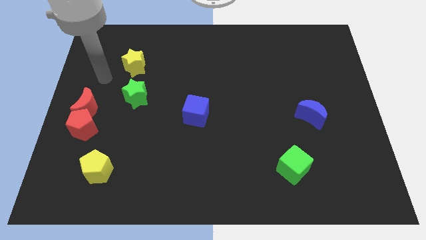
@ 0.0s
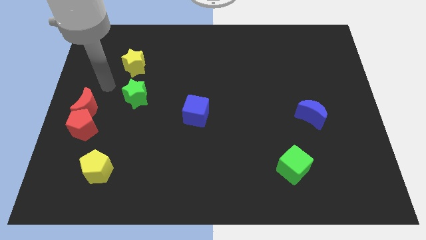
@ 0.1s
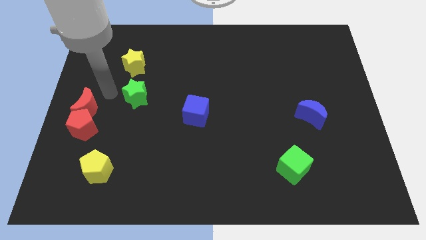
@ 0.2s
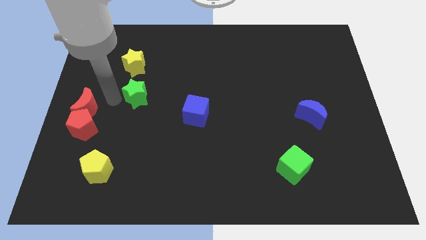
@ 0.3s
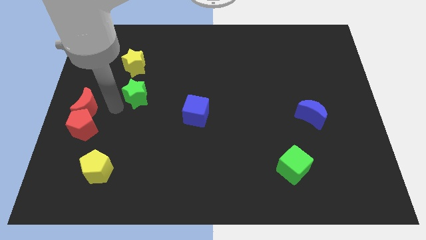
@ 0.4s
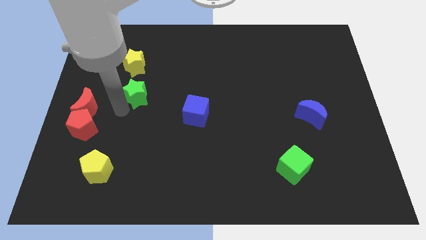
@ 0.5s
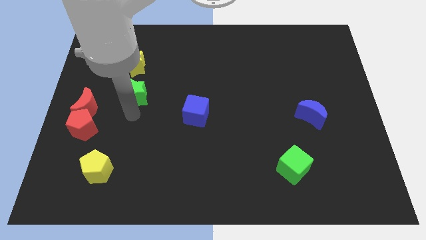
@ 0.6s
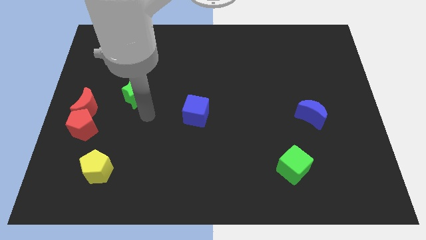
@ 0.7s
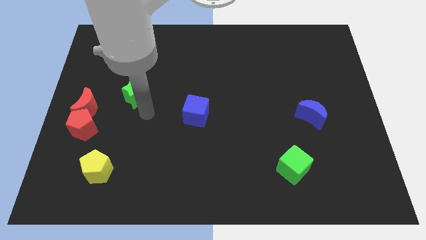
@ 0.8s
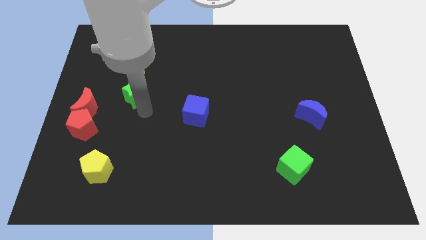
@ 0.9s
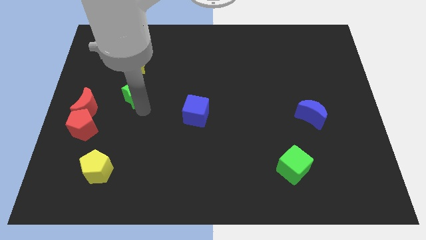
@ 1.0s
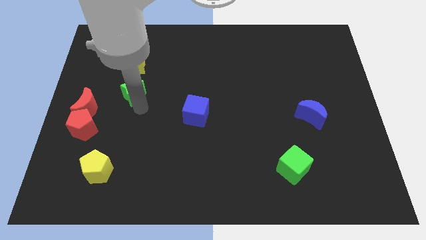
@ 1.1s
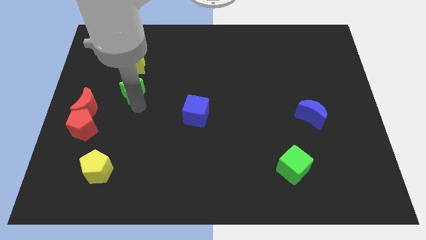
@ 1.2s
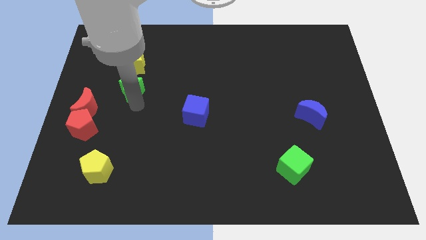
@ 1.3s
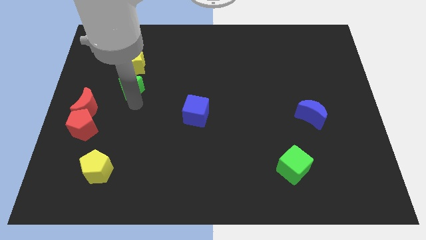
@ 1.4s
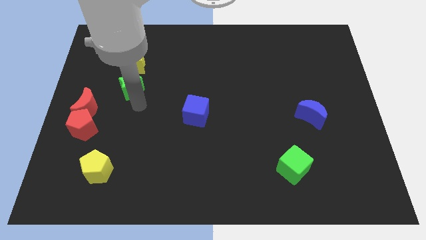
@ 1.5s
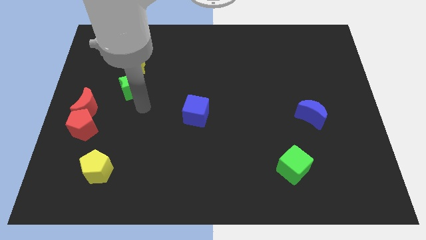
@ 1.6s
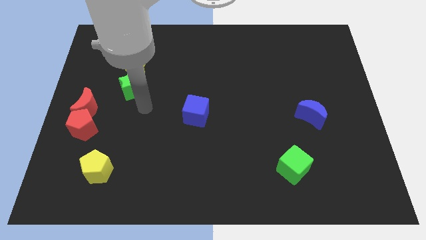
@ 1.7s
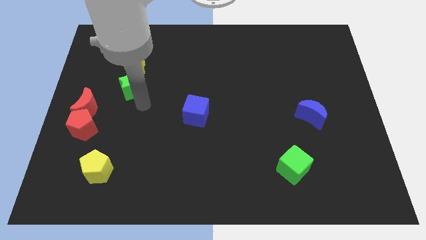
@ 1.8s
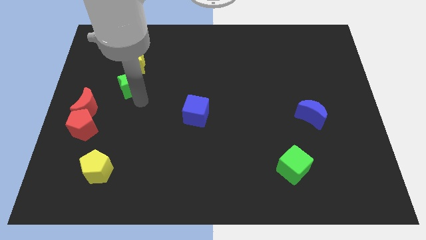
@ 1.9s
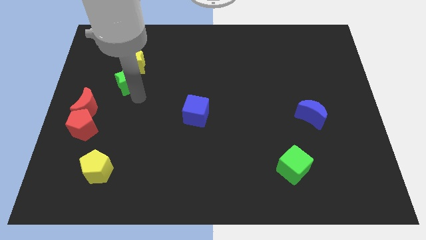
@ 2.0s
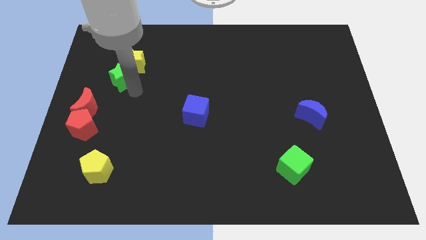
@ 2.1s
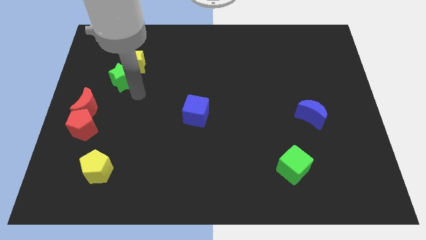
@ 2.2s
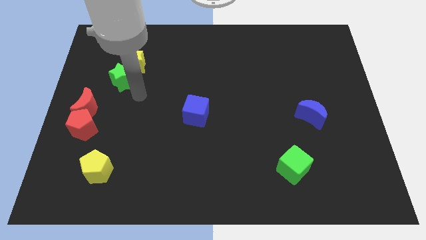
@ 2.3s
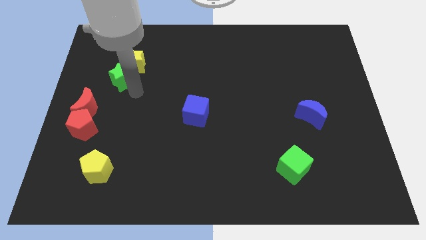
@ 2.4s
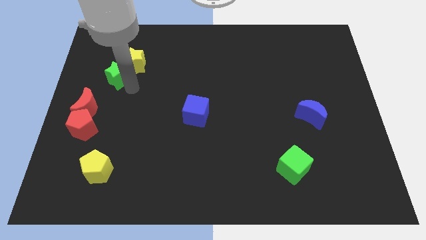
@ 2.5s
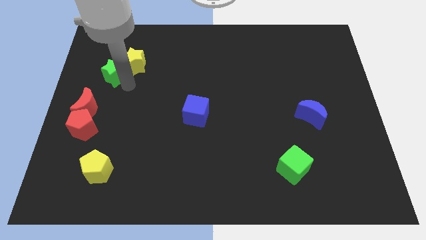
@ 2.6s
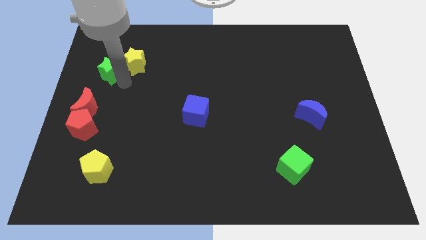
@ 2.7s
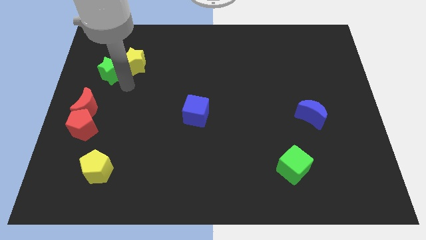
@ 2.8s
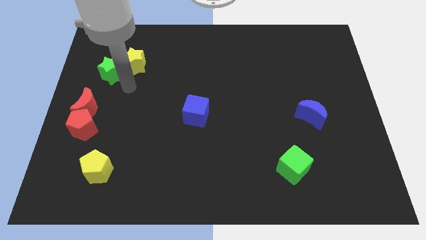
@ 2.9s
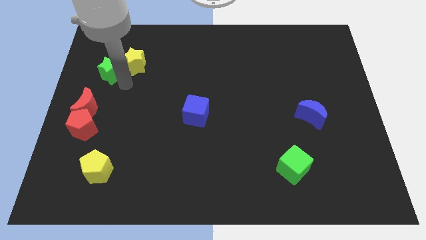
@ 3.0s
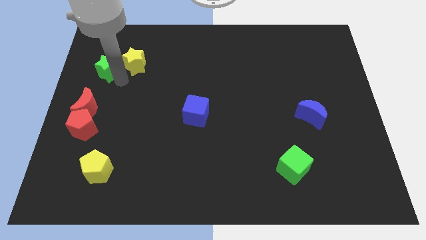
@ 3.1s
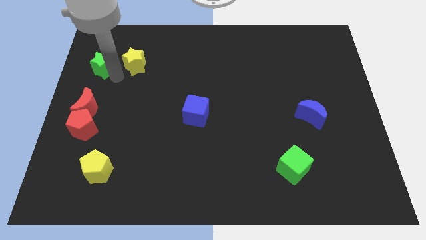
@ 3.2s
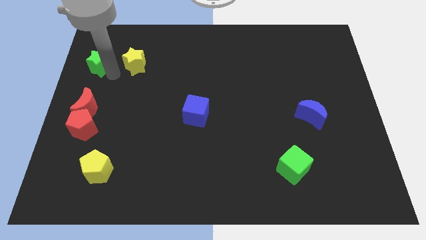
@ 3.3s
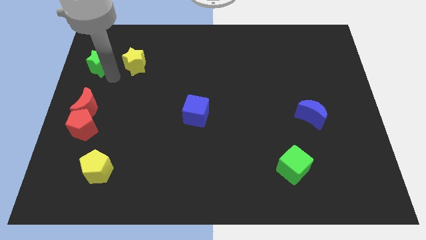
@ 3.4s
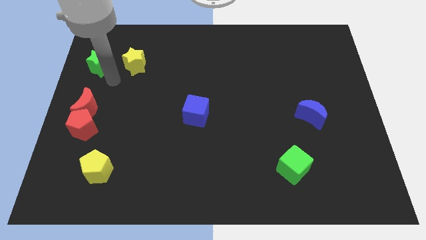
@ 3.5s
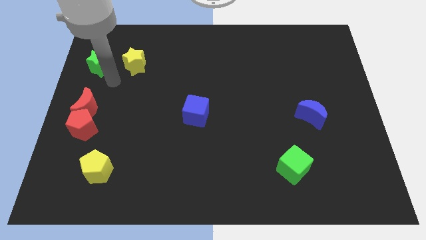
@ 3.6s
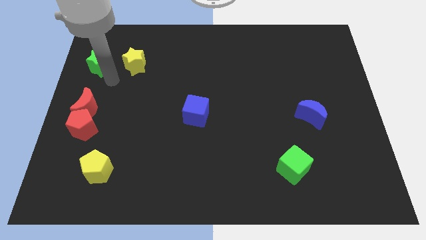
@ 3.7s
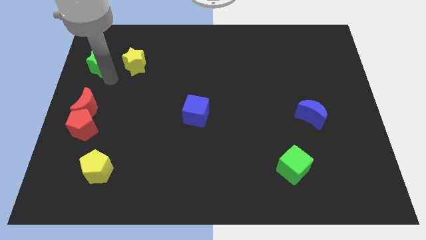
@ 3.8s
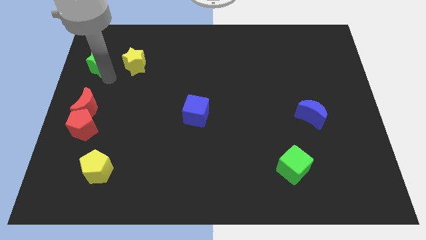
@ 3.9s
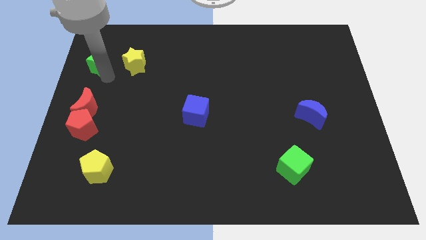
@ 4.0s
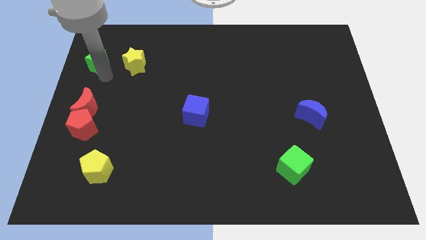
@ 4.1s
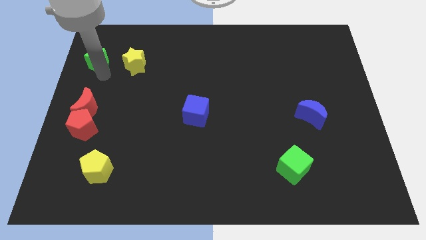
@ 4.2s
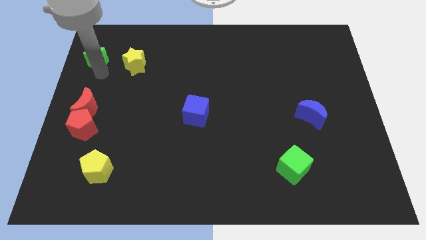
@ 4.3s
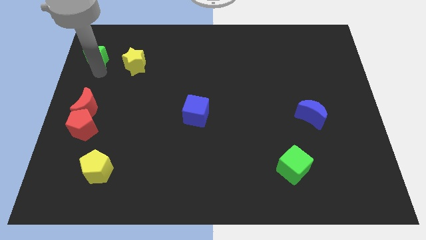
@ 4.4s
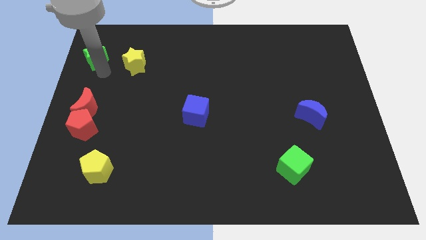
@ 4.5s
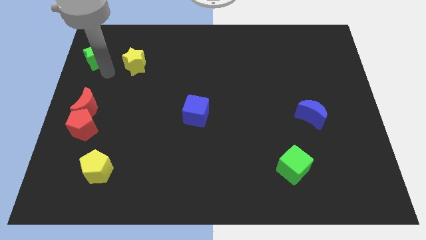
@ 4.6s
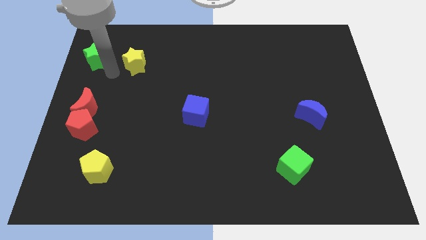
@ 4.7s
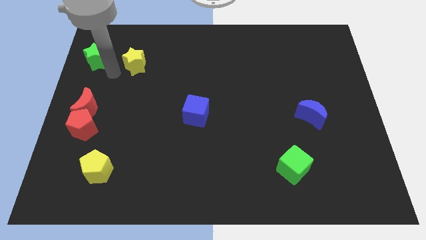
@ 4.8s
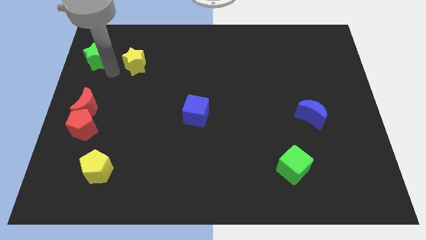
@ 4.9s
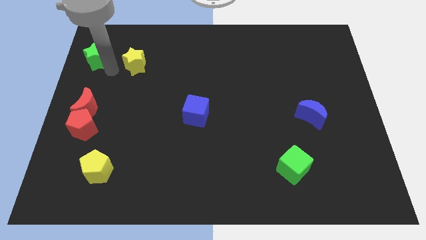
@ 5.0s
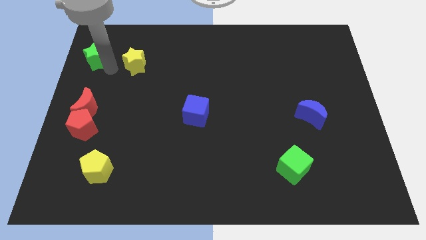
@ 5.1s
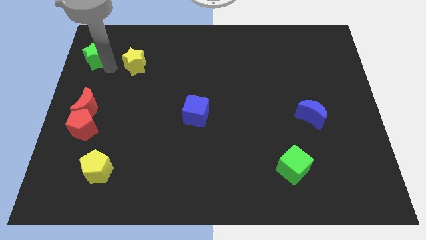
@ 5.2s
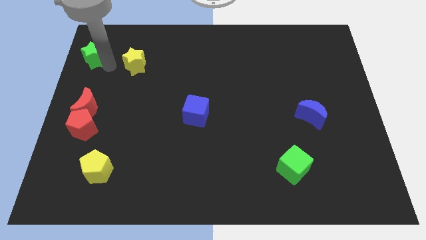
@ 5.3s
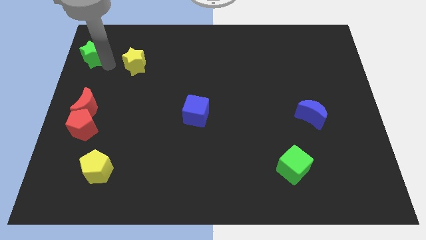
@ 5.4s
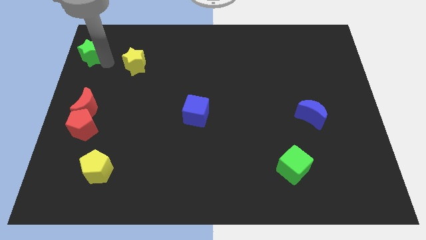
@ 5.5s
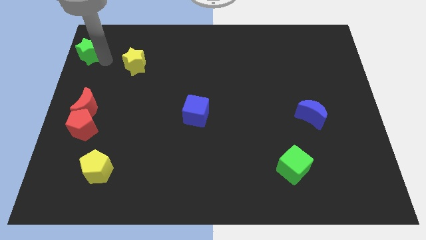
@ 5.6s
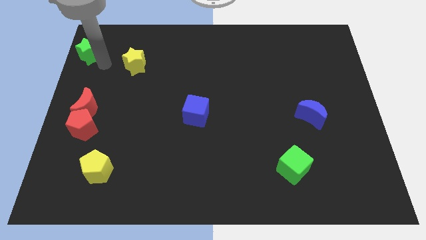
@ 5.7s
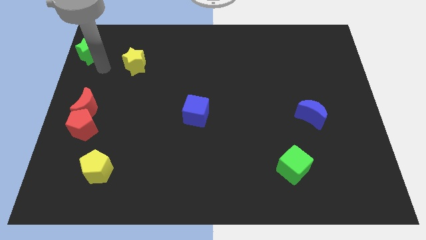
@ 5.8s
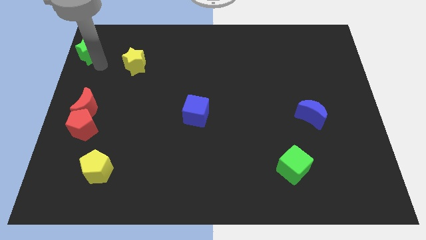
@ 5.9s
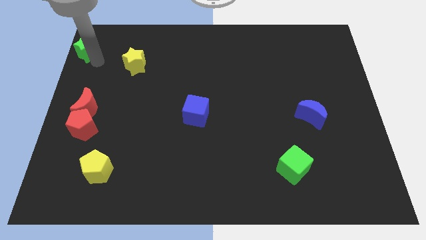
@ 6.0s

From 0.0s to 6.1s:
move the green star to the top left of the board

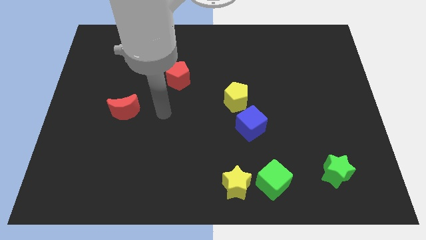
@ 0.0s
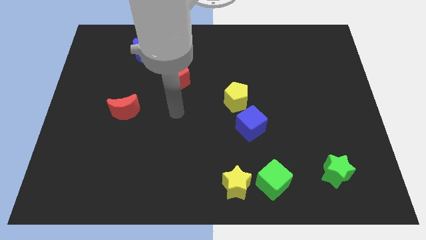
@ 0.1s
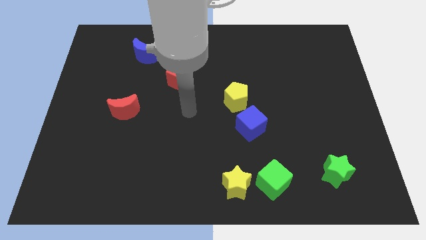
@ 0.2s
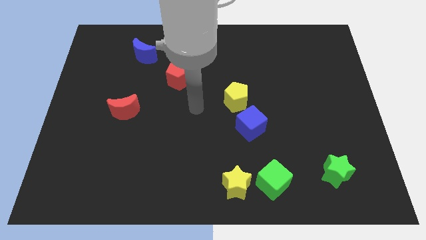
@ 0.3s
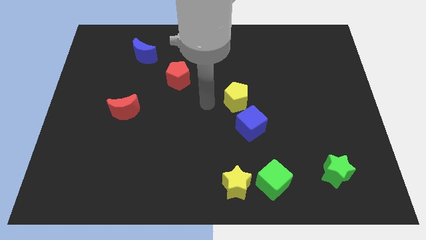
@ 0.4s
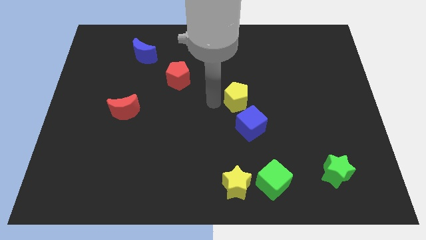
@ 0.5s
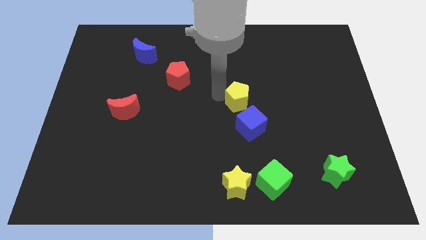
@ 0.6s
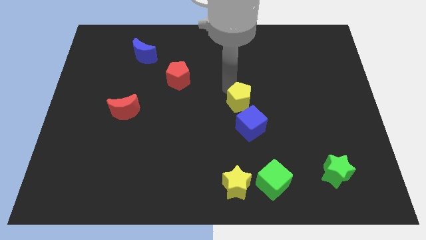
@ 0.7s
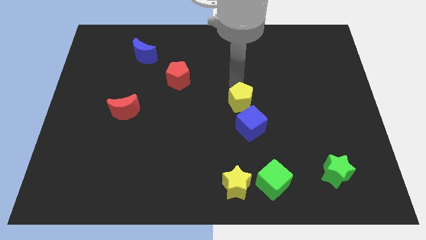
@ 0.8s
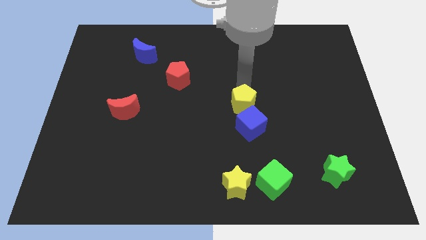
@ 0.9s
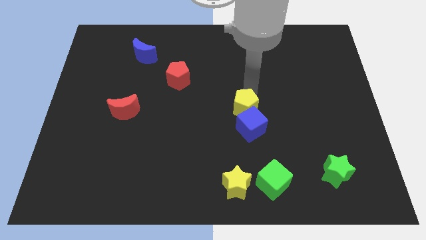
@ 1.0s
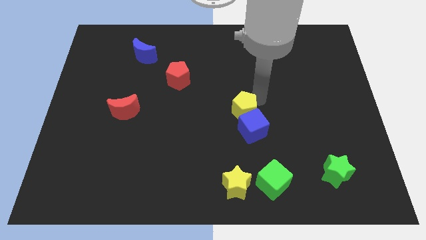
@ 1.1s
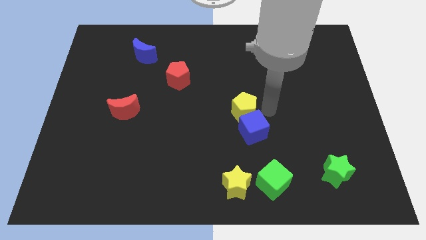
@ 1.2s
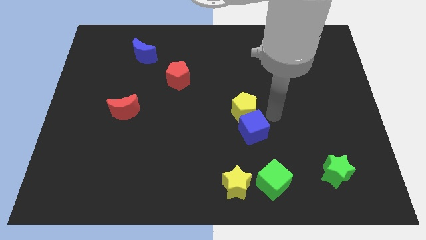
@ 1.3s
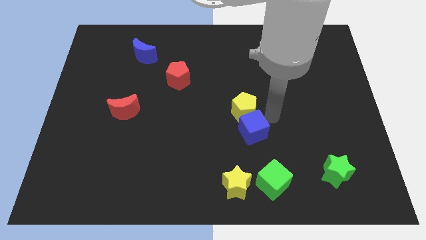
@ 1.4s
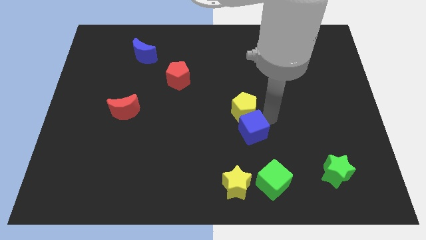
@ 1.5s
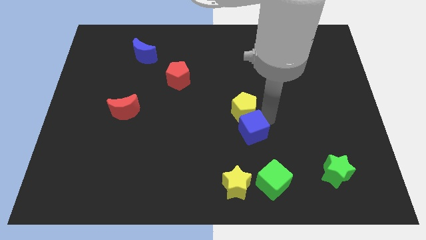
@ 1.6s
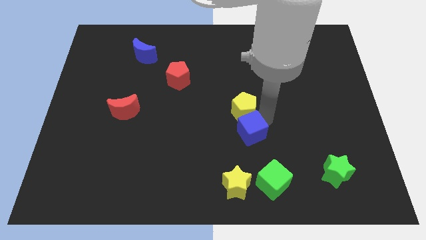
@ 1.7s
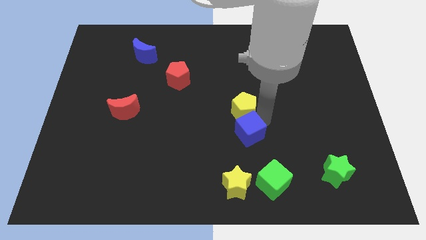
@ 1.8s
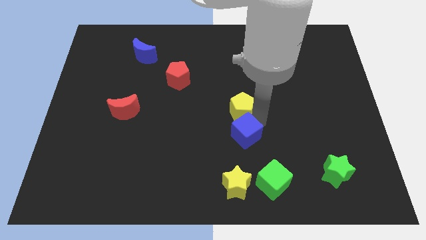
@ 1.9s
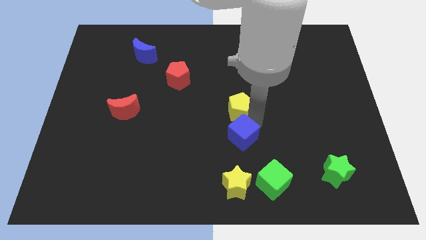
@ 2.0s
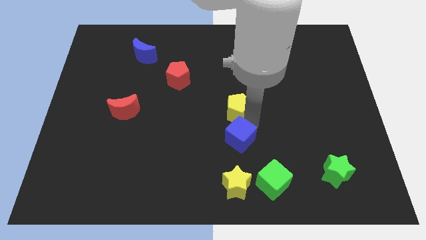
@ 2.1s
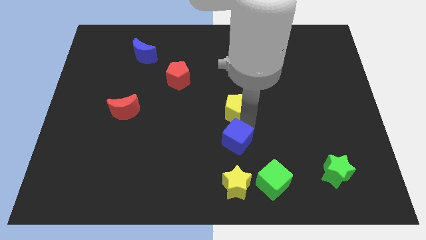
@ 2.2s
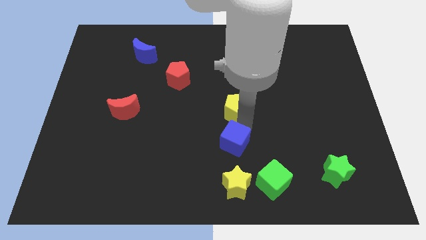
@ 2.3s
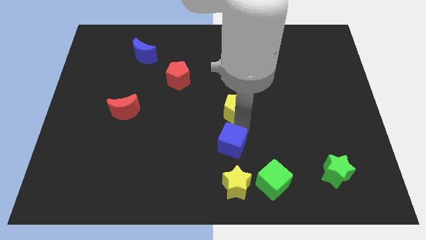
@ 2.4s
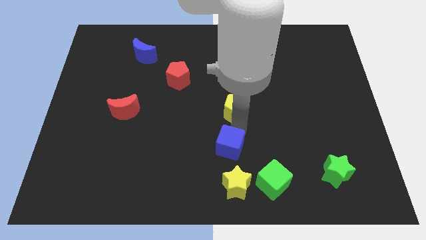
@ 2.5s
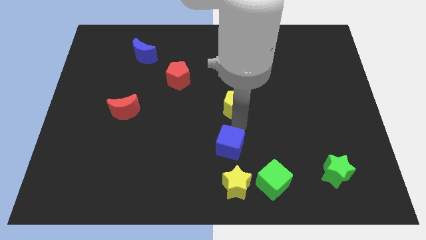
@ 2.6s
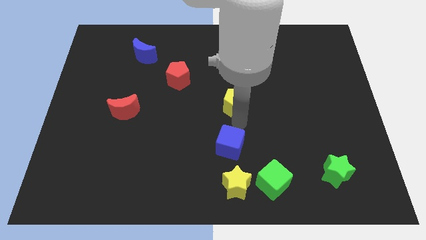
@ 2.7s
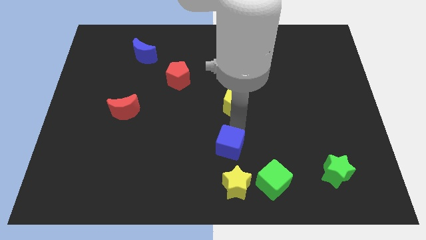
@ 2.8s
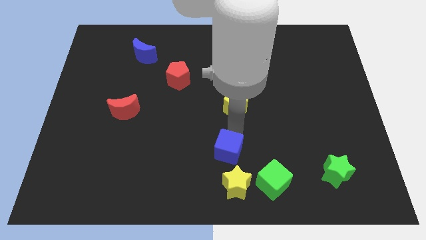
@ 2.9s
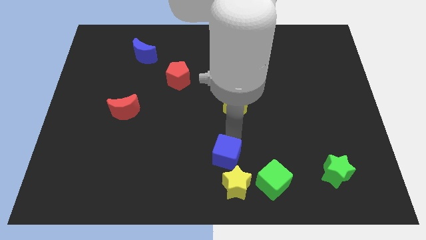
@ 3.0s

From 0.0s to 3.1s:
slide the blue cube to the bottom
